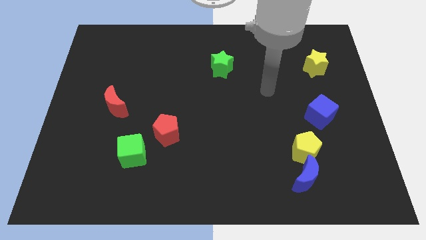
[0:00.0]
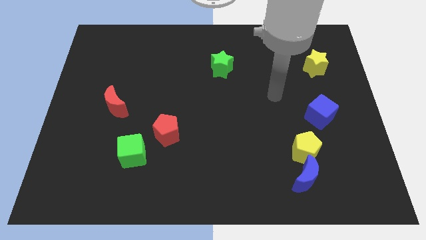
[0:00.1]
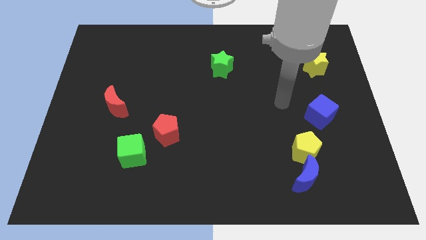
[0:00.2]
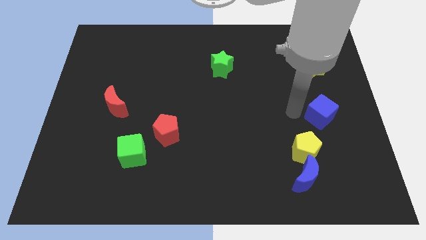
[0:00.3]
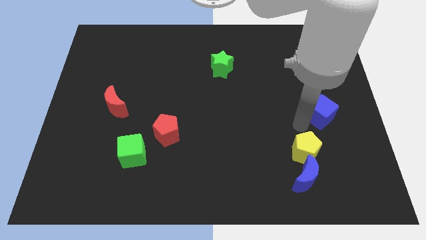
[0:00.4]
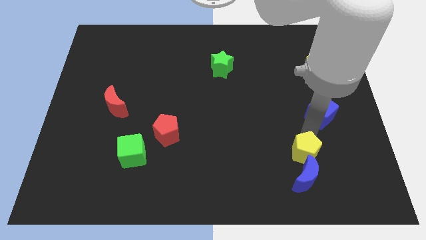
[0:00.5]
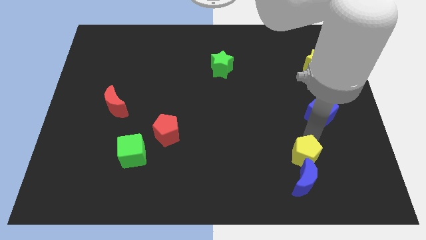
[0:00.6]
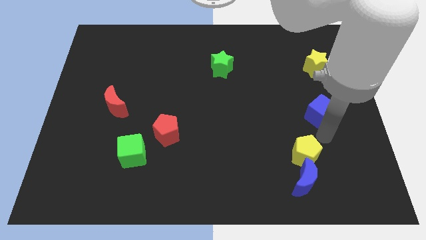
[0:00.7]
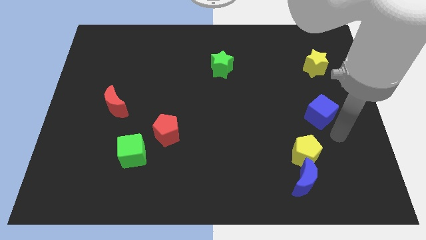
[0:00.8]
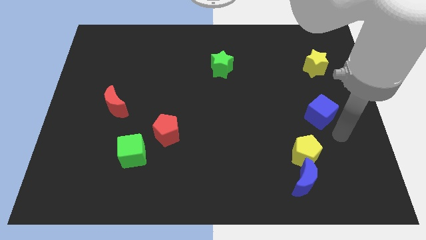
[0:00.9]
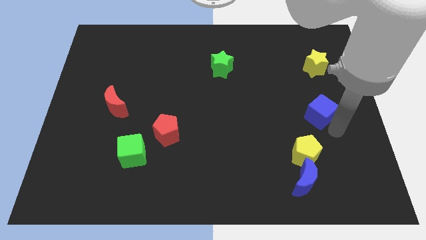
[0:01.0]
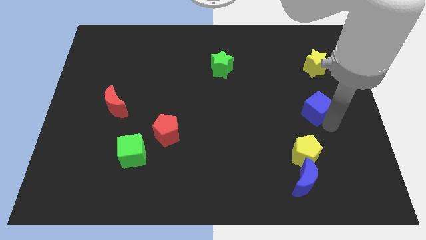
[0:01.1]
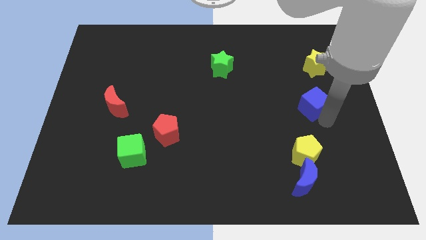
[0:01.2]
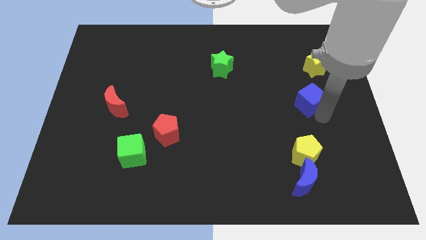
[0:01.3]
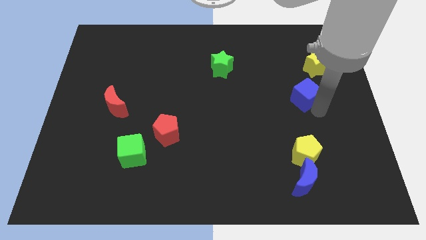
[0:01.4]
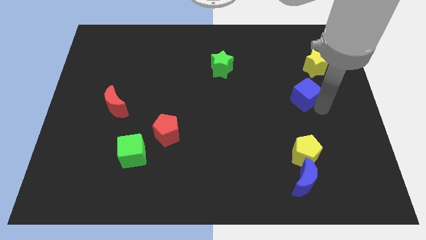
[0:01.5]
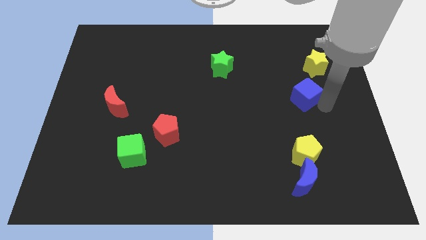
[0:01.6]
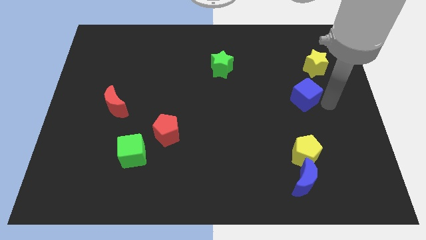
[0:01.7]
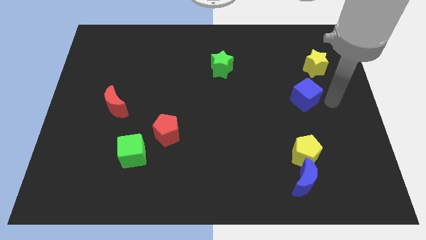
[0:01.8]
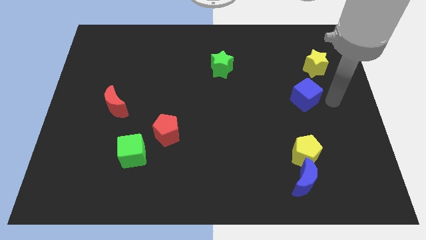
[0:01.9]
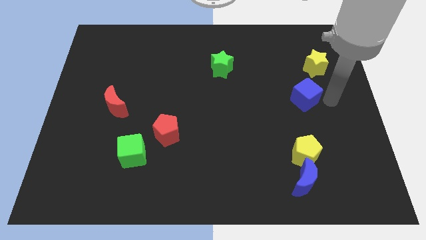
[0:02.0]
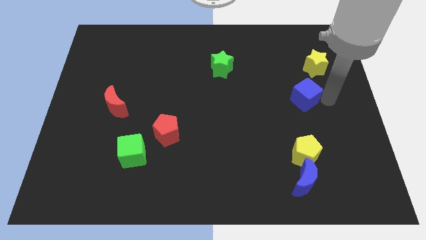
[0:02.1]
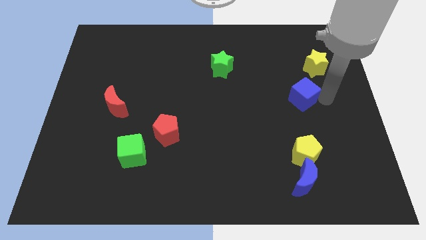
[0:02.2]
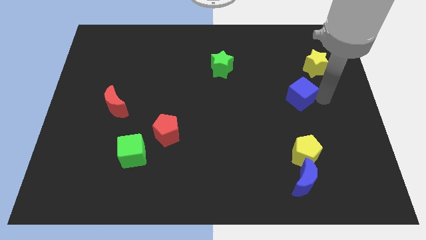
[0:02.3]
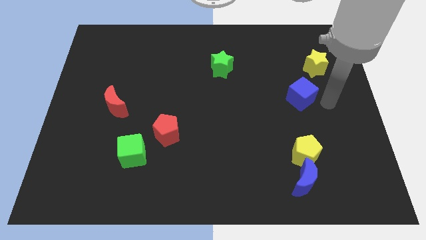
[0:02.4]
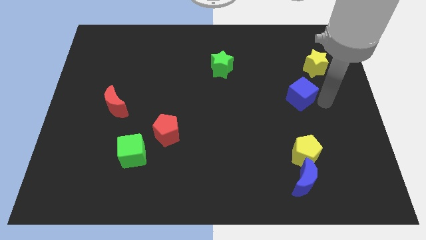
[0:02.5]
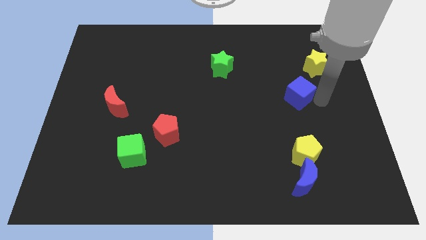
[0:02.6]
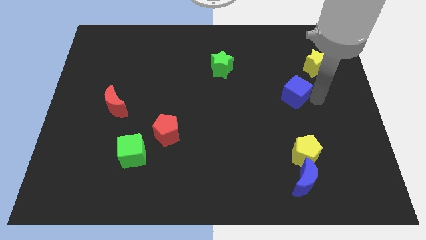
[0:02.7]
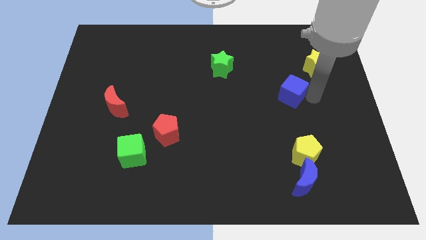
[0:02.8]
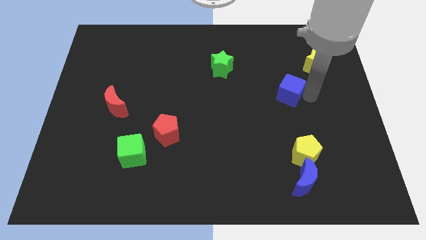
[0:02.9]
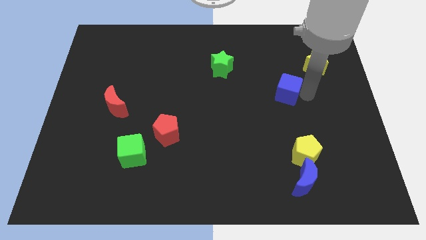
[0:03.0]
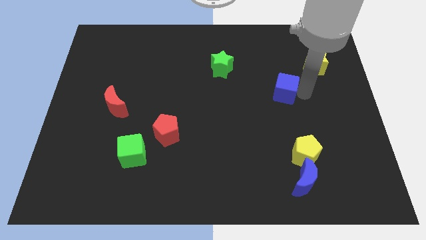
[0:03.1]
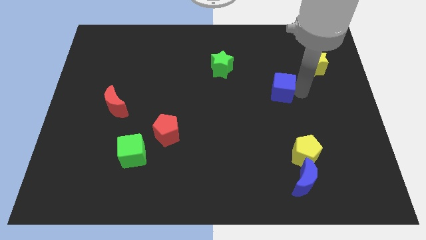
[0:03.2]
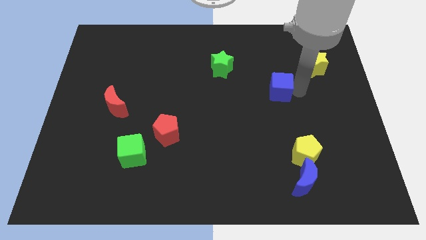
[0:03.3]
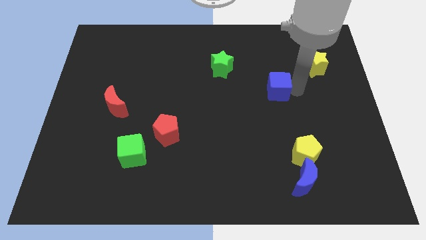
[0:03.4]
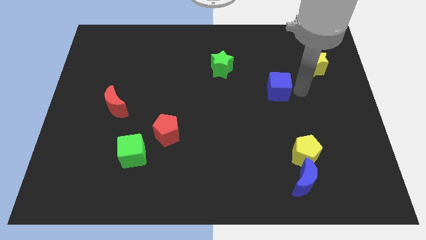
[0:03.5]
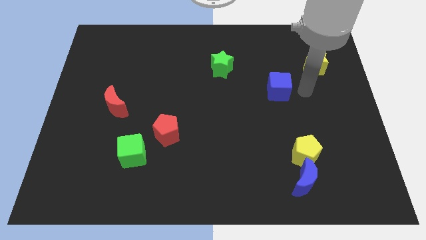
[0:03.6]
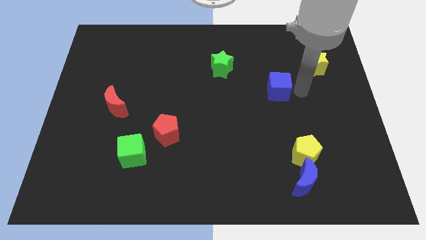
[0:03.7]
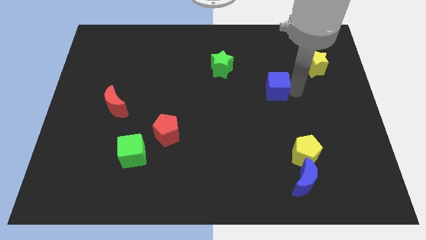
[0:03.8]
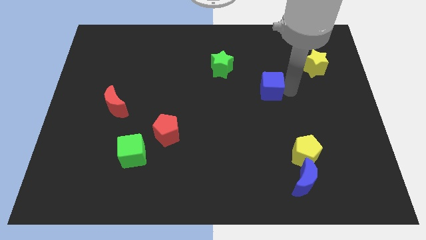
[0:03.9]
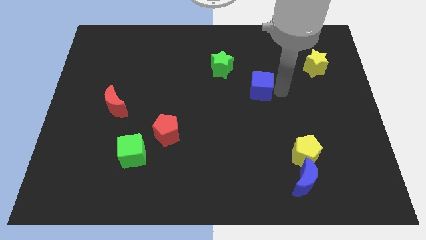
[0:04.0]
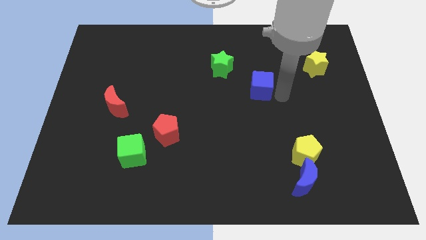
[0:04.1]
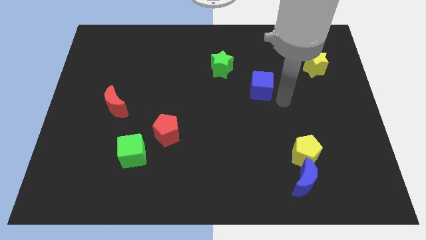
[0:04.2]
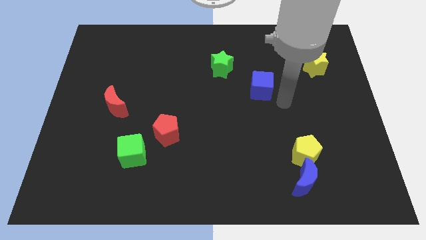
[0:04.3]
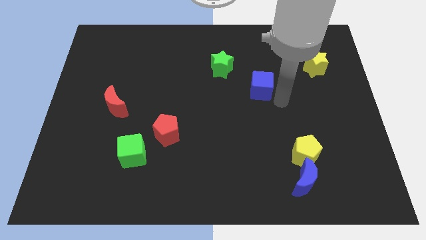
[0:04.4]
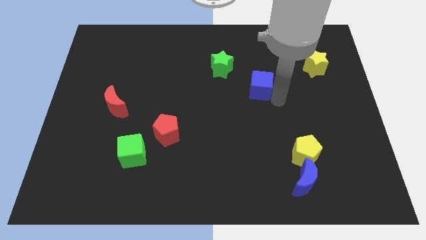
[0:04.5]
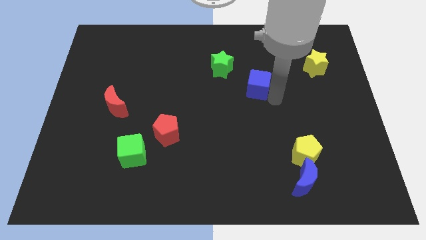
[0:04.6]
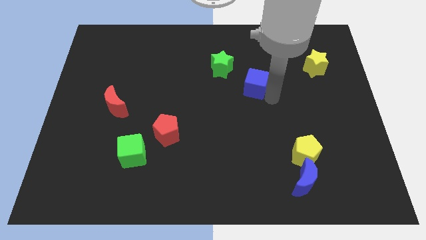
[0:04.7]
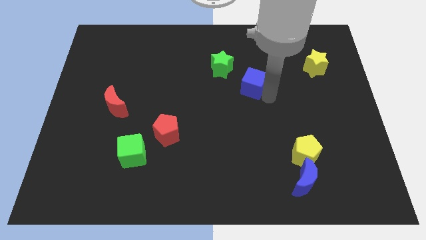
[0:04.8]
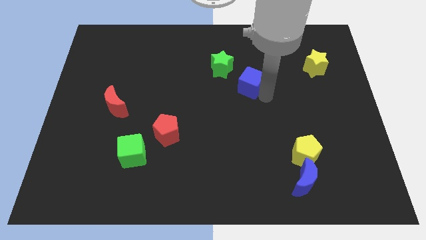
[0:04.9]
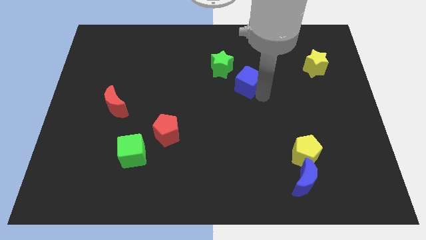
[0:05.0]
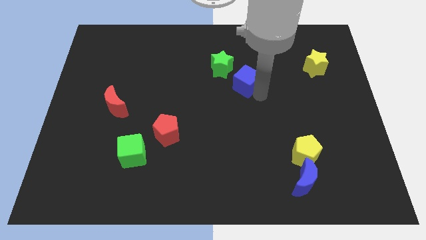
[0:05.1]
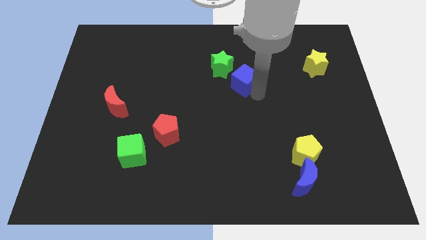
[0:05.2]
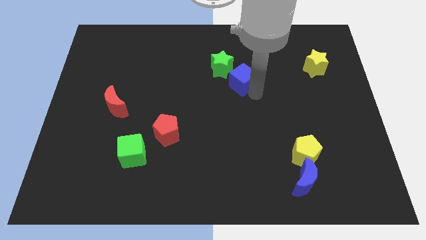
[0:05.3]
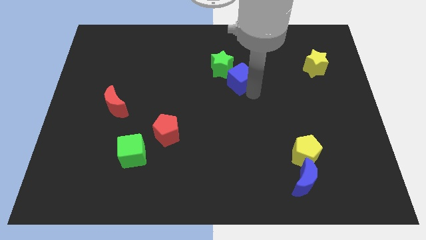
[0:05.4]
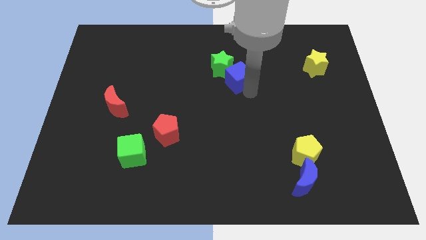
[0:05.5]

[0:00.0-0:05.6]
slide the blue cube to the green star

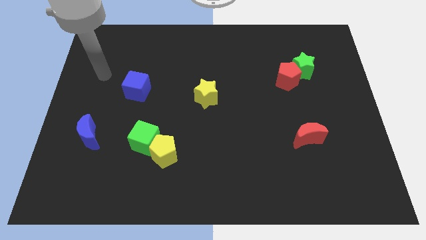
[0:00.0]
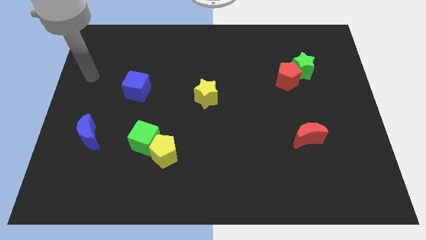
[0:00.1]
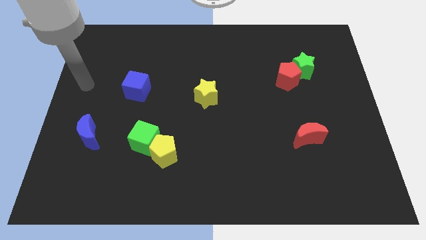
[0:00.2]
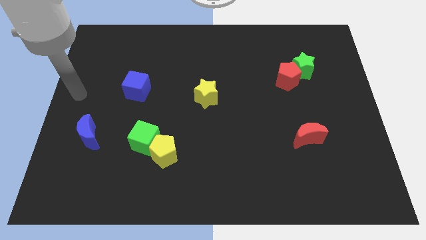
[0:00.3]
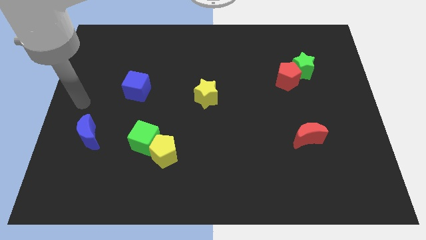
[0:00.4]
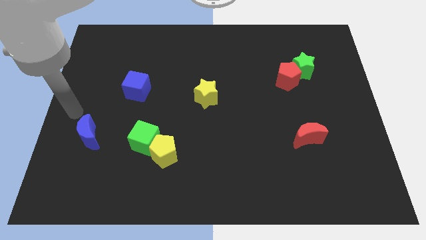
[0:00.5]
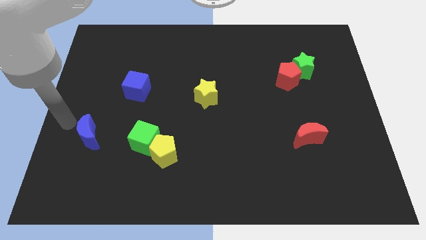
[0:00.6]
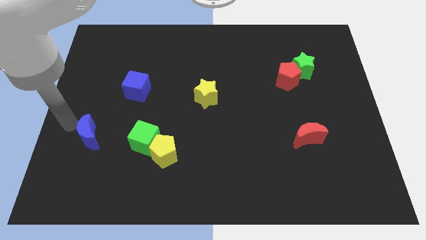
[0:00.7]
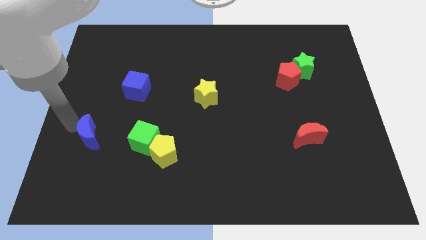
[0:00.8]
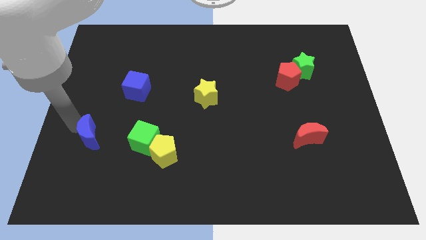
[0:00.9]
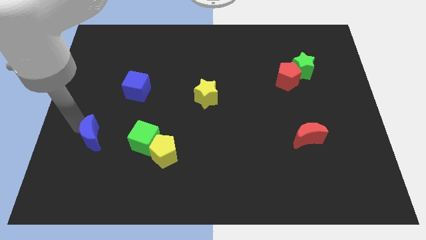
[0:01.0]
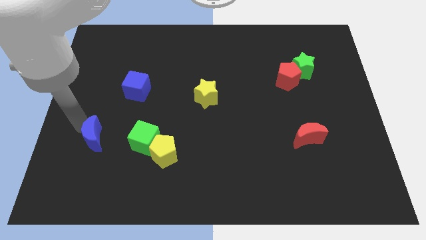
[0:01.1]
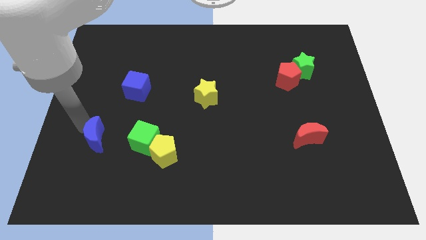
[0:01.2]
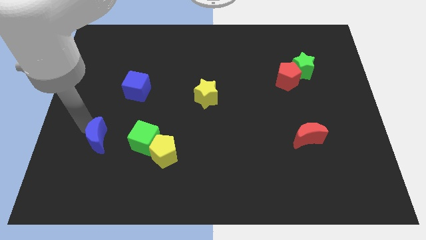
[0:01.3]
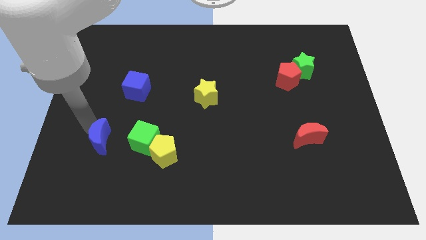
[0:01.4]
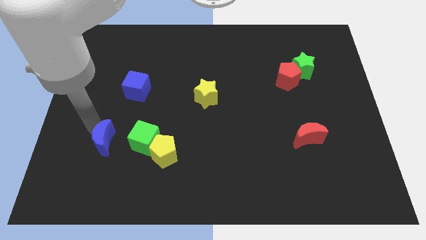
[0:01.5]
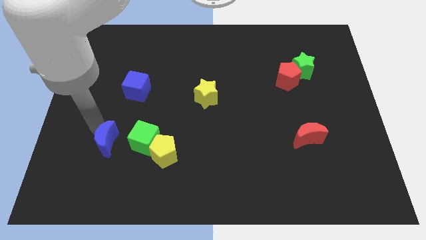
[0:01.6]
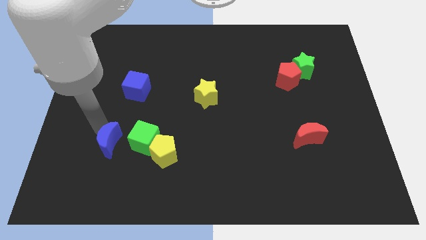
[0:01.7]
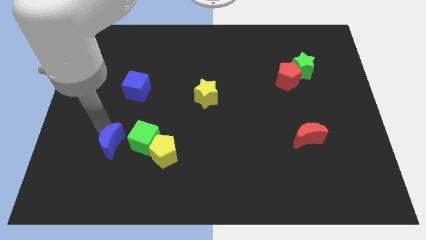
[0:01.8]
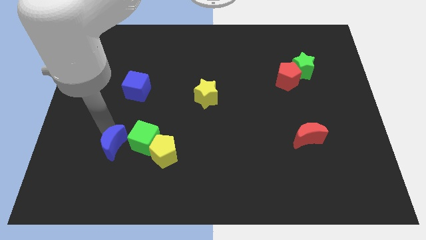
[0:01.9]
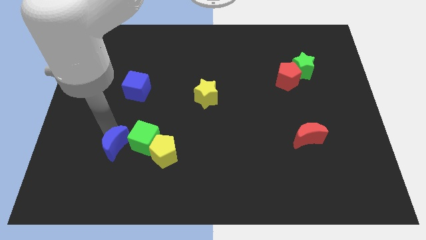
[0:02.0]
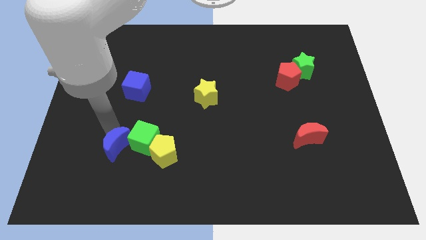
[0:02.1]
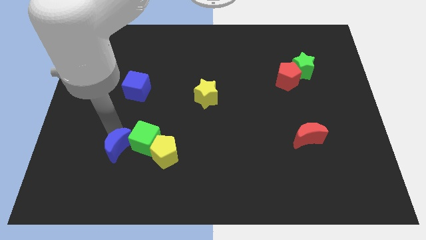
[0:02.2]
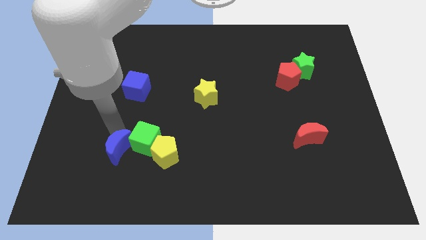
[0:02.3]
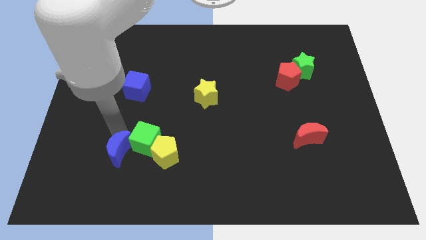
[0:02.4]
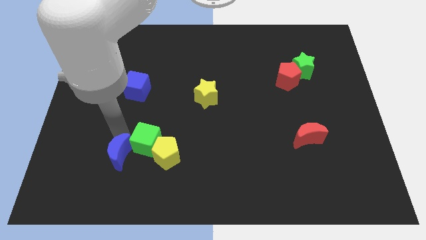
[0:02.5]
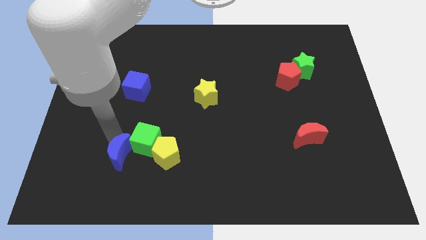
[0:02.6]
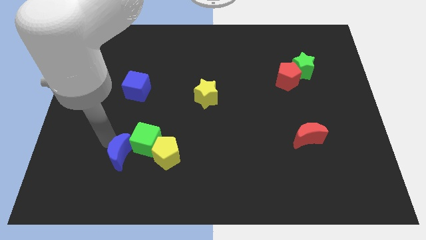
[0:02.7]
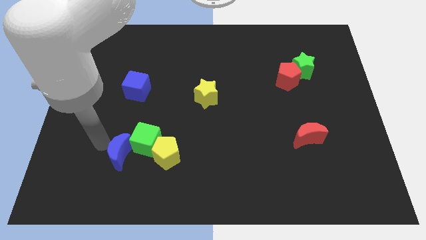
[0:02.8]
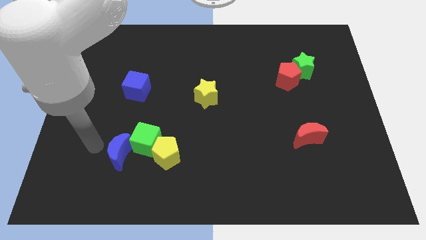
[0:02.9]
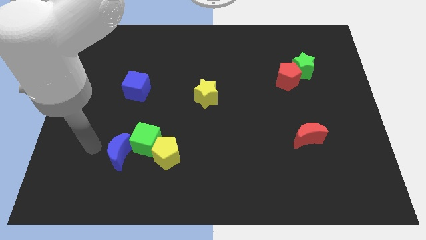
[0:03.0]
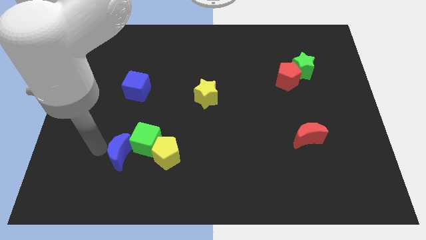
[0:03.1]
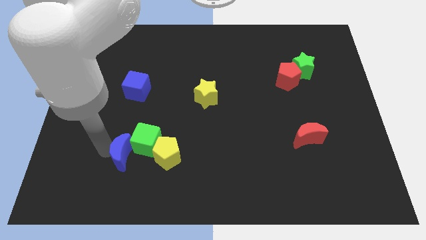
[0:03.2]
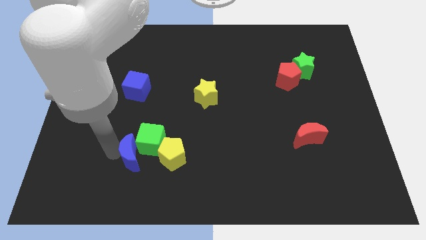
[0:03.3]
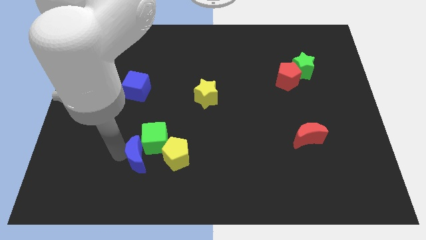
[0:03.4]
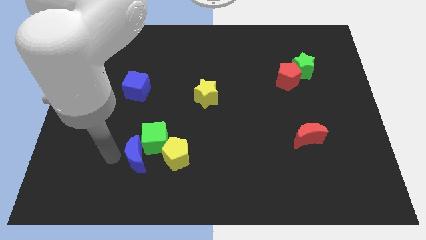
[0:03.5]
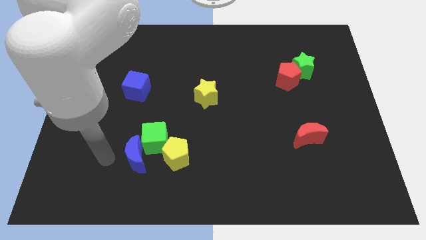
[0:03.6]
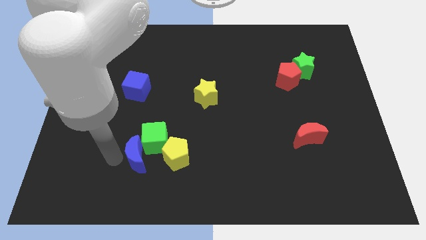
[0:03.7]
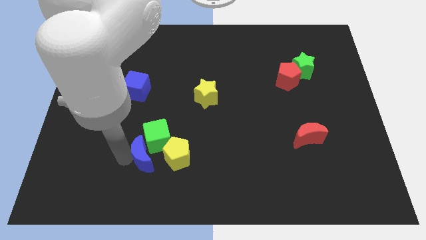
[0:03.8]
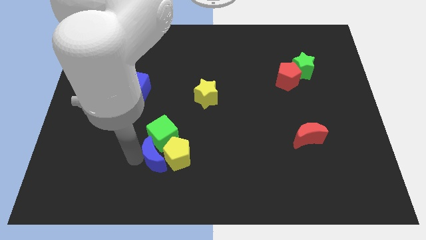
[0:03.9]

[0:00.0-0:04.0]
move the blue moon towards the yellow pentagon
